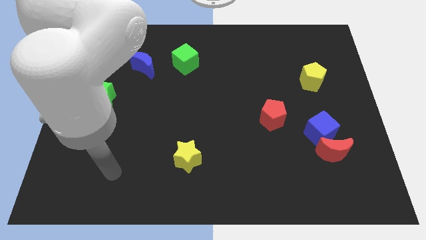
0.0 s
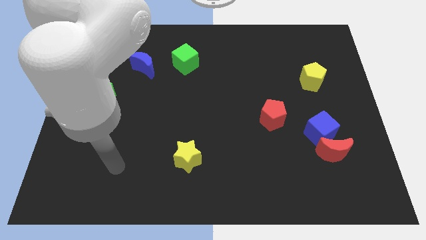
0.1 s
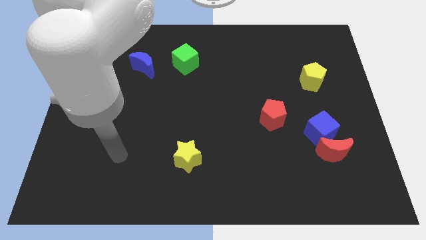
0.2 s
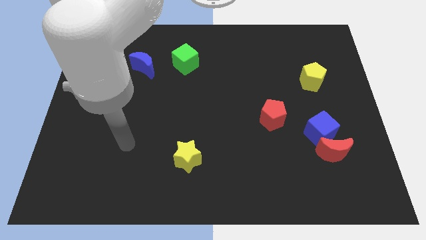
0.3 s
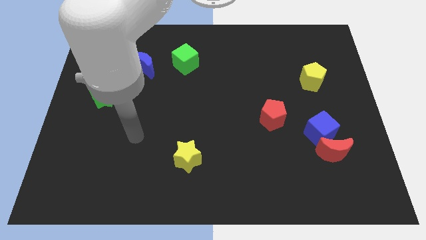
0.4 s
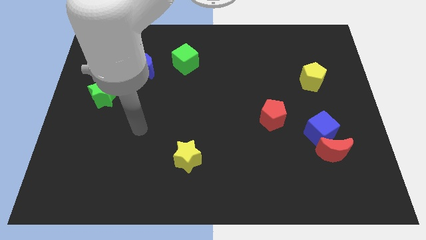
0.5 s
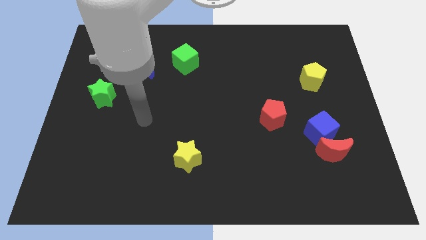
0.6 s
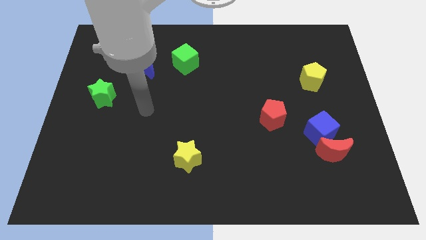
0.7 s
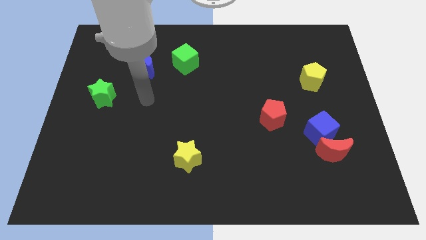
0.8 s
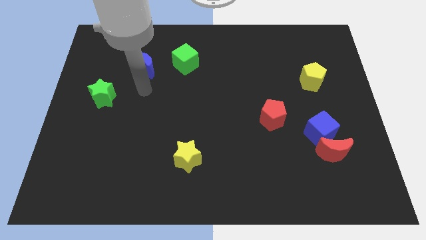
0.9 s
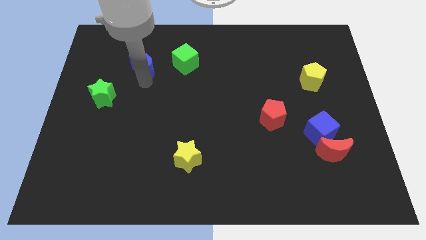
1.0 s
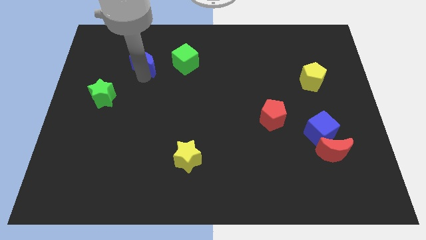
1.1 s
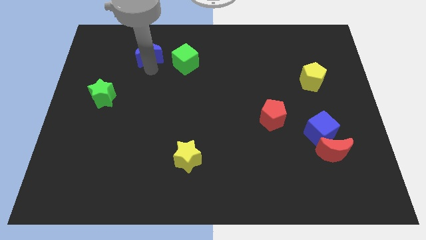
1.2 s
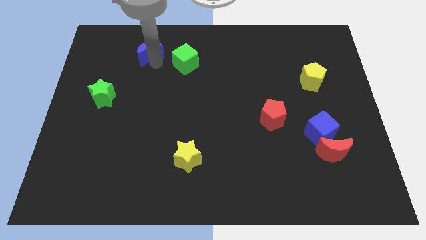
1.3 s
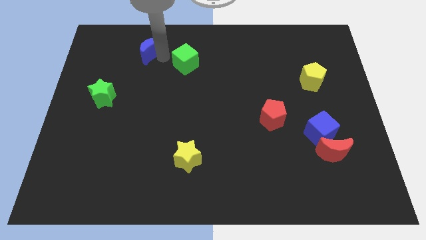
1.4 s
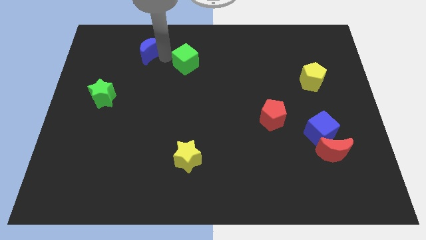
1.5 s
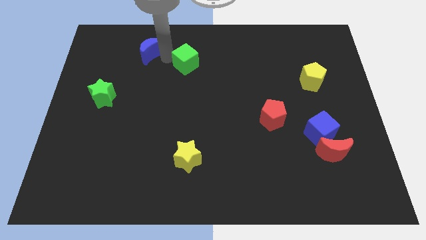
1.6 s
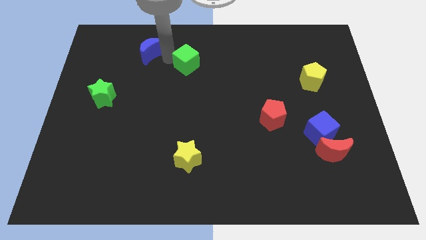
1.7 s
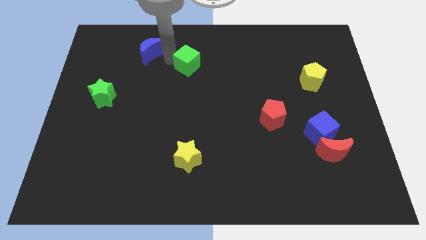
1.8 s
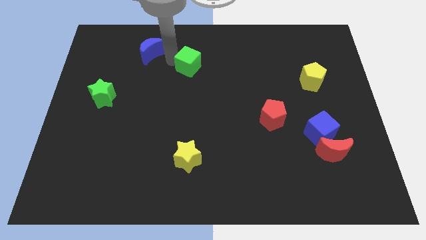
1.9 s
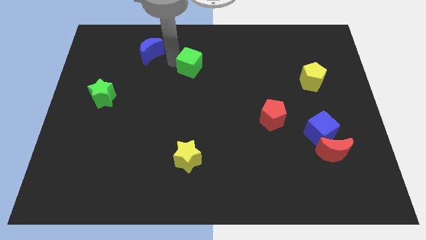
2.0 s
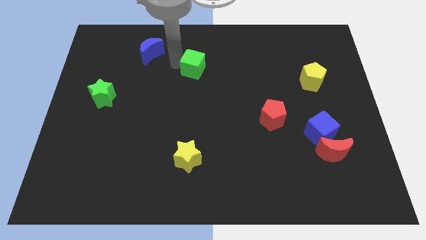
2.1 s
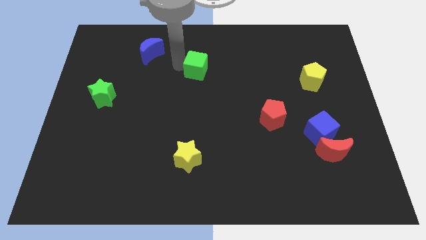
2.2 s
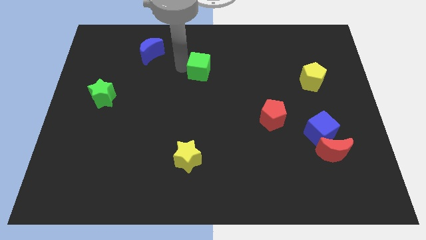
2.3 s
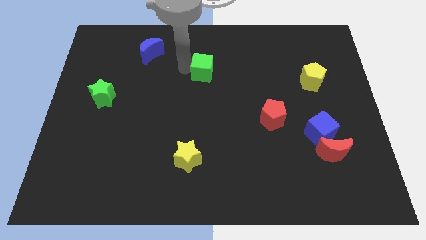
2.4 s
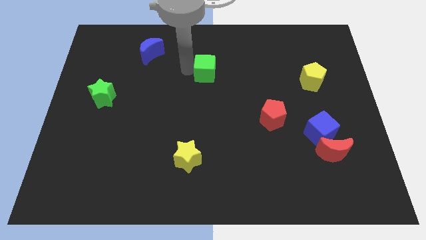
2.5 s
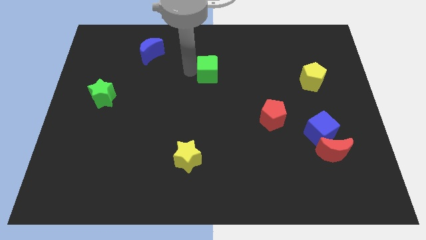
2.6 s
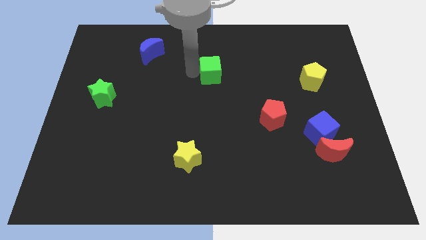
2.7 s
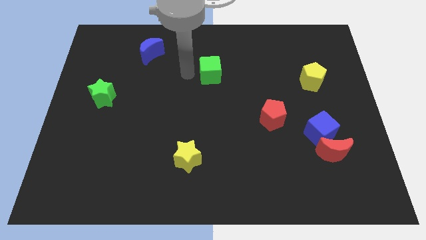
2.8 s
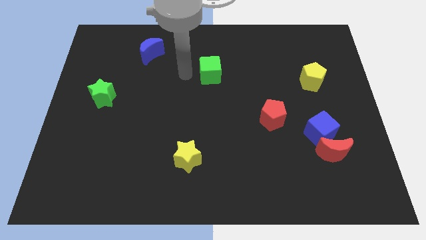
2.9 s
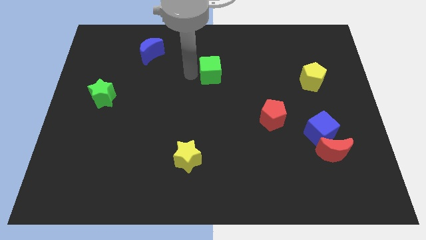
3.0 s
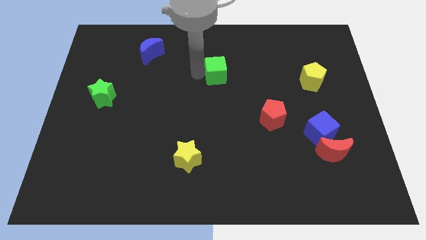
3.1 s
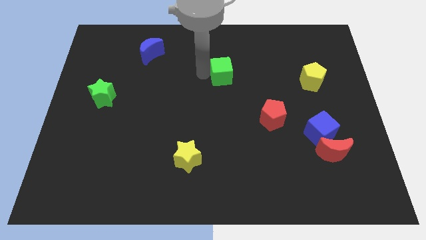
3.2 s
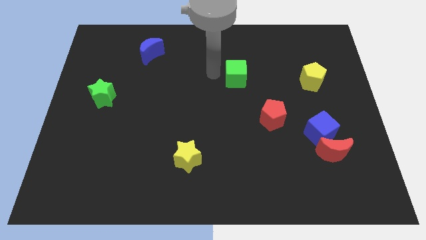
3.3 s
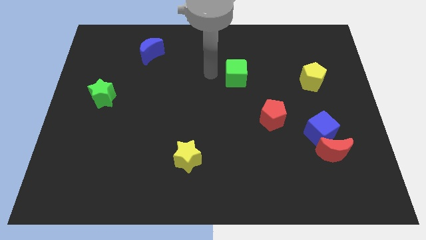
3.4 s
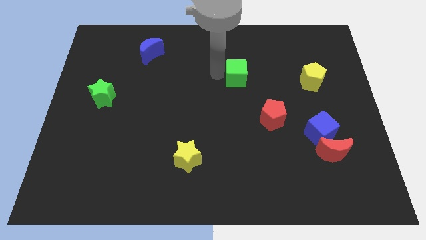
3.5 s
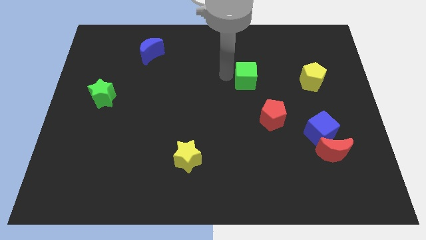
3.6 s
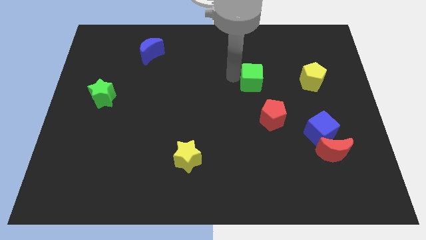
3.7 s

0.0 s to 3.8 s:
move the green cube to the left of the yellow pentagon

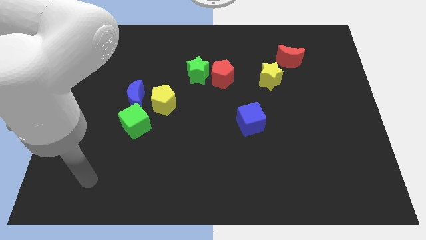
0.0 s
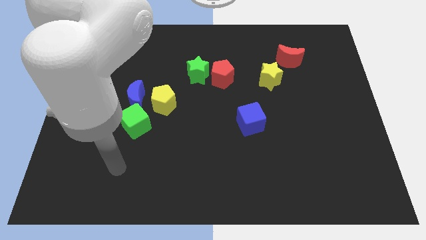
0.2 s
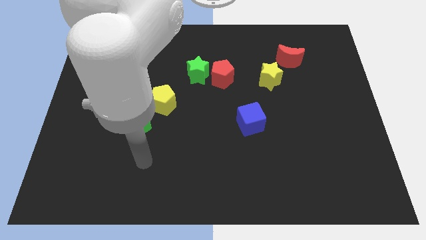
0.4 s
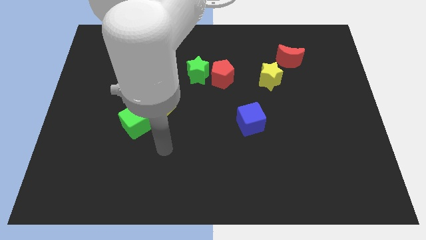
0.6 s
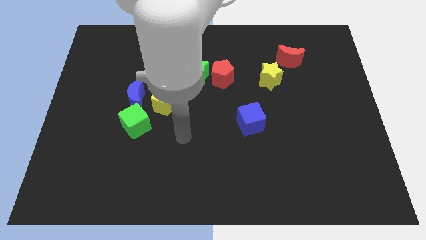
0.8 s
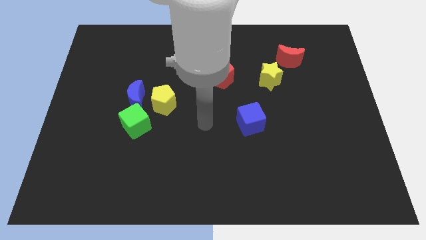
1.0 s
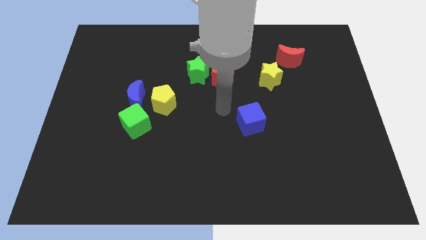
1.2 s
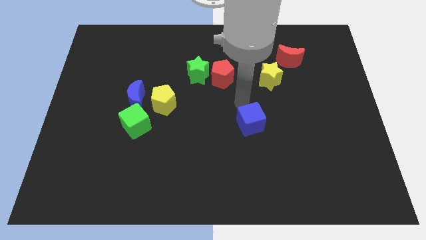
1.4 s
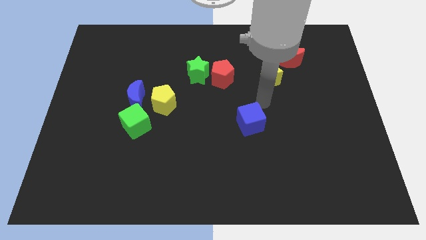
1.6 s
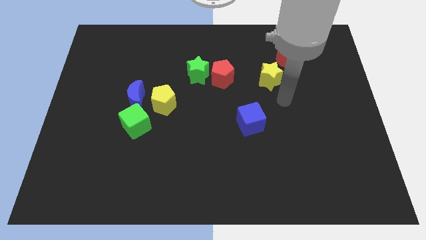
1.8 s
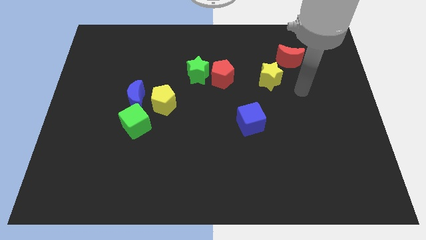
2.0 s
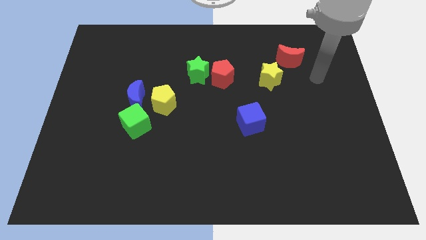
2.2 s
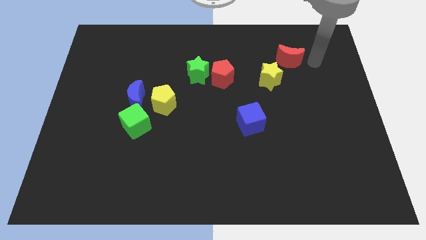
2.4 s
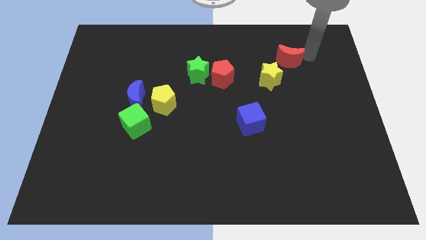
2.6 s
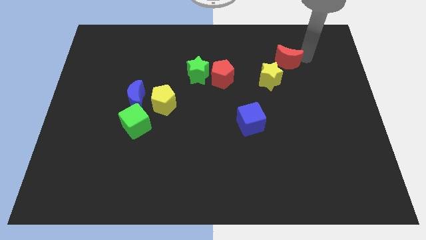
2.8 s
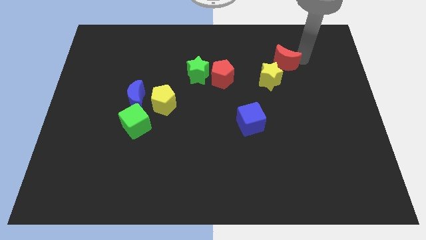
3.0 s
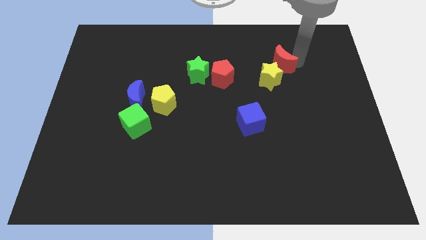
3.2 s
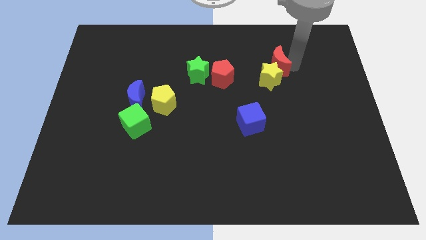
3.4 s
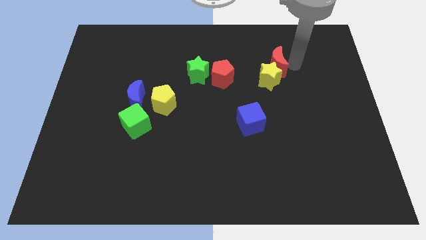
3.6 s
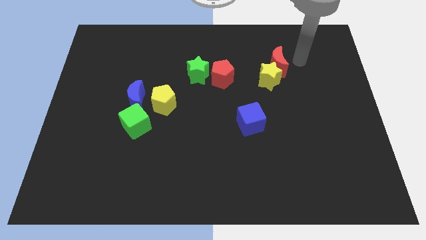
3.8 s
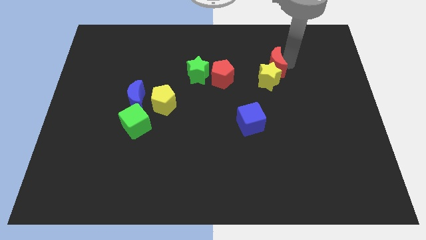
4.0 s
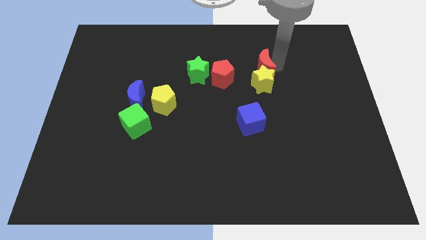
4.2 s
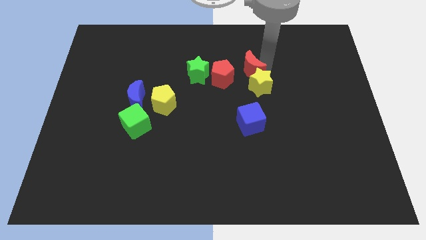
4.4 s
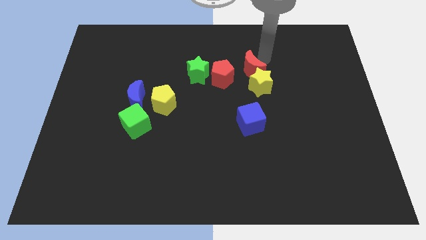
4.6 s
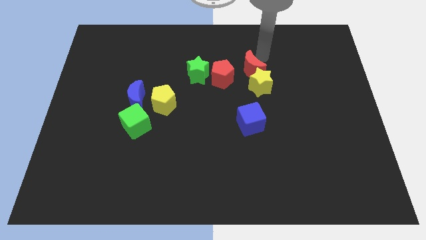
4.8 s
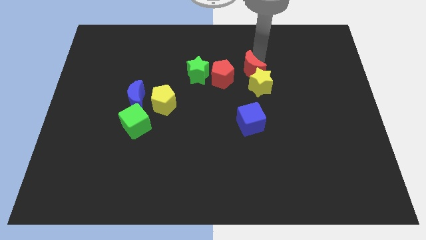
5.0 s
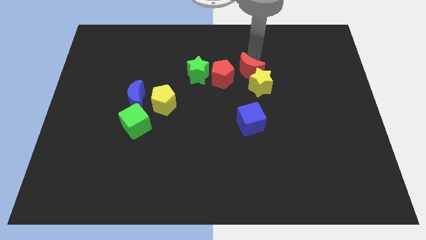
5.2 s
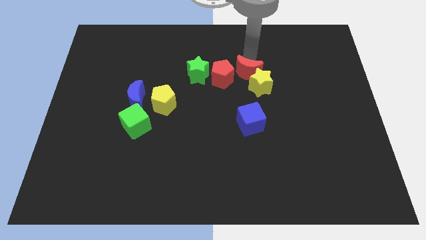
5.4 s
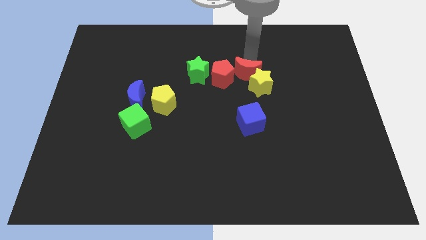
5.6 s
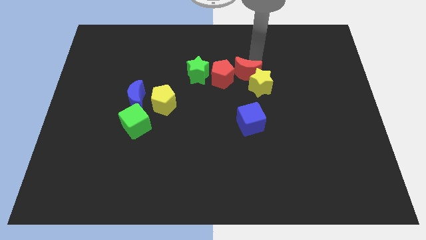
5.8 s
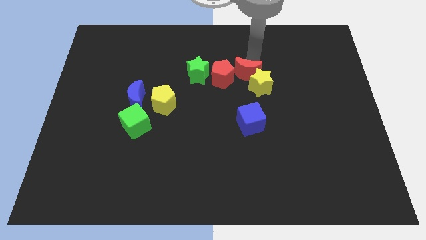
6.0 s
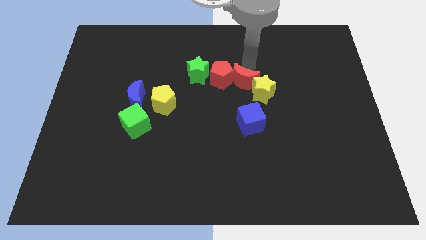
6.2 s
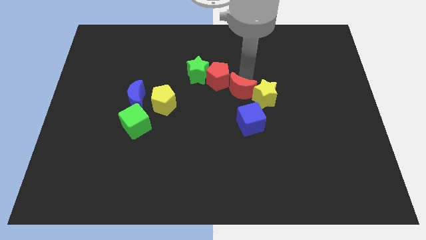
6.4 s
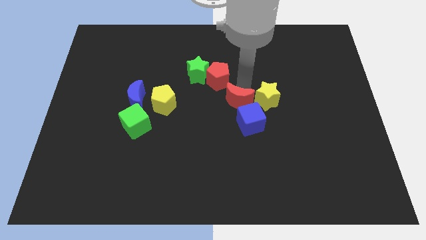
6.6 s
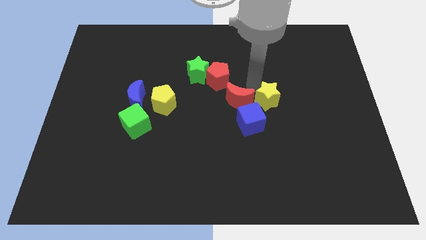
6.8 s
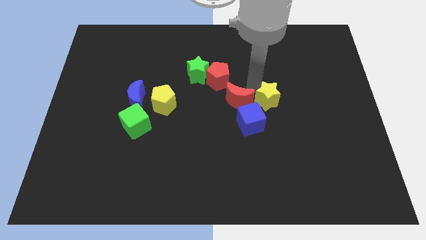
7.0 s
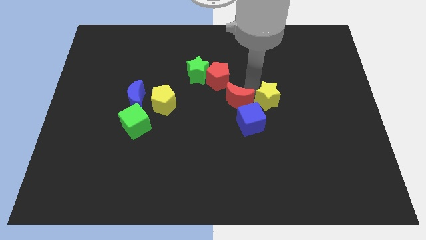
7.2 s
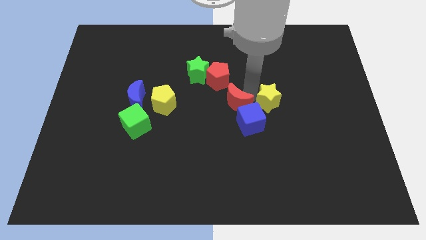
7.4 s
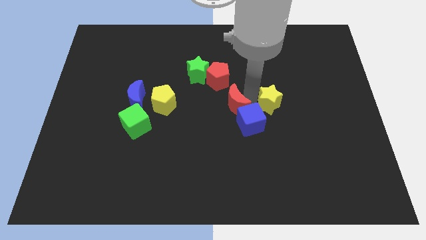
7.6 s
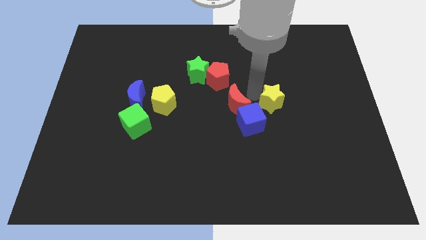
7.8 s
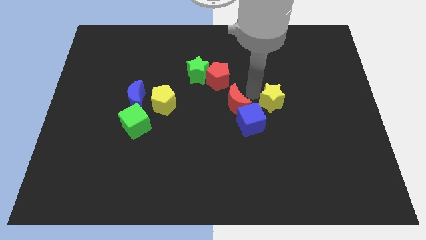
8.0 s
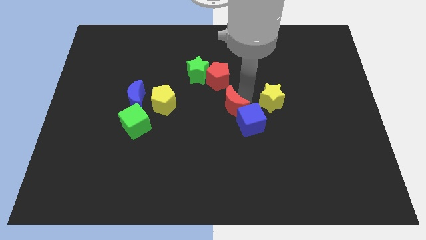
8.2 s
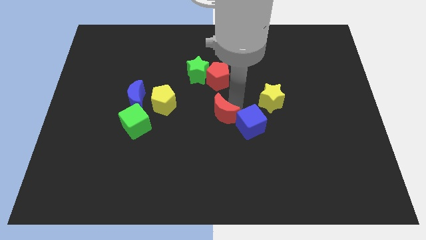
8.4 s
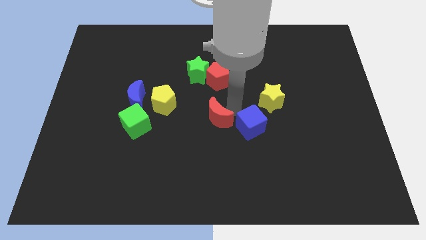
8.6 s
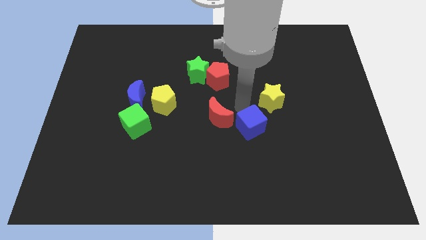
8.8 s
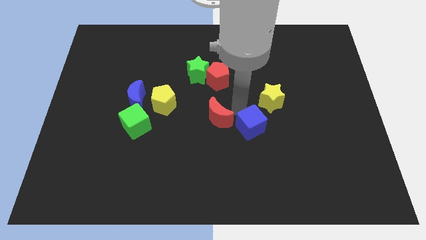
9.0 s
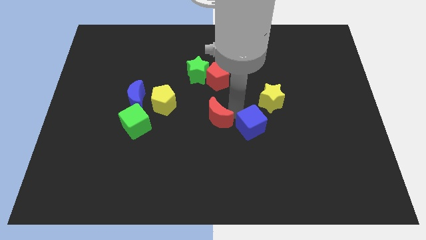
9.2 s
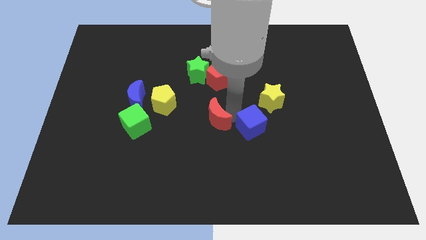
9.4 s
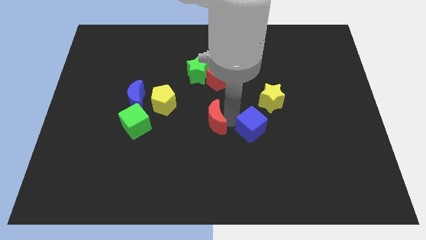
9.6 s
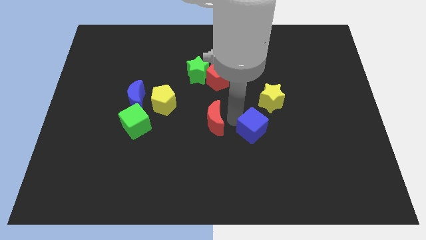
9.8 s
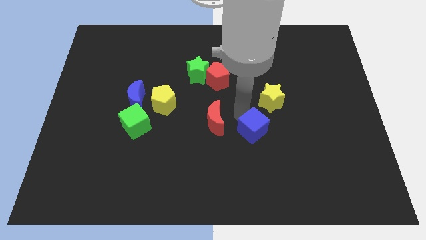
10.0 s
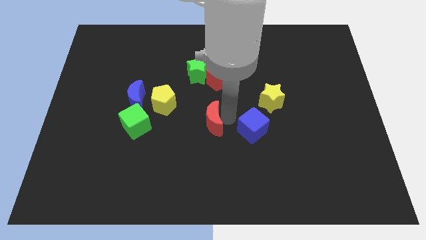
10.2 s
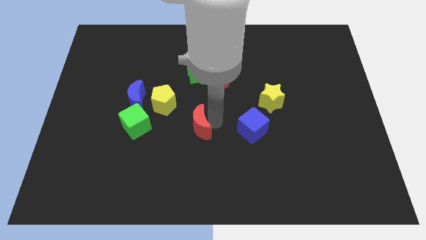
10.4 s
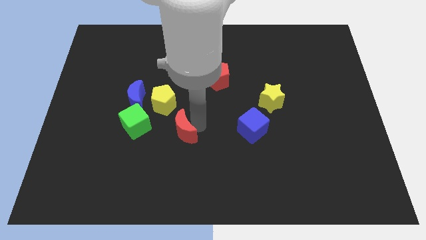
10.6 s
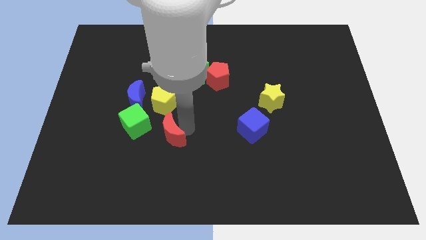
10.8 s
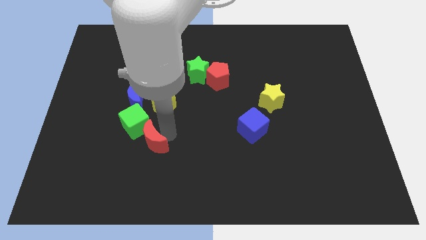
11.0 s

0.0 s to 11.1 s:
push the red moon to the bottom side of the green cube
